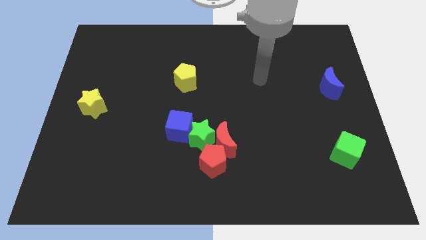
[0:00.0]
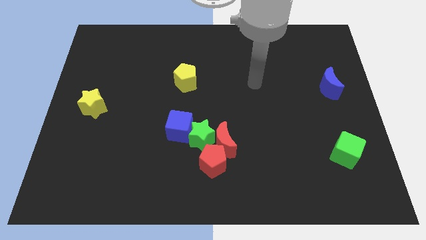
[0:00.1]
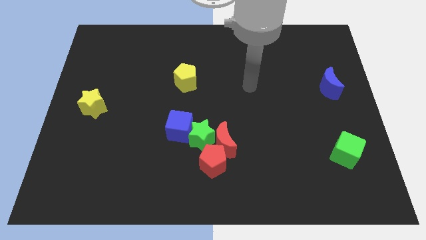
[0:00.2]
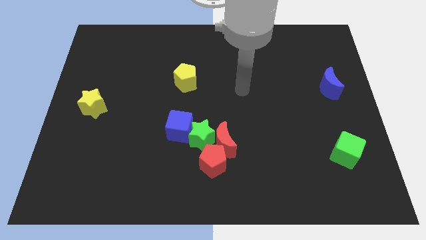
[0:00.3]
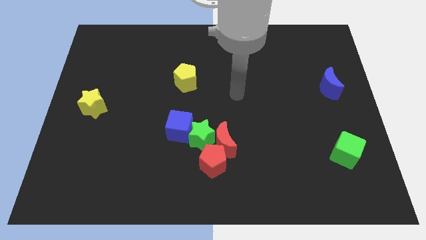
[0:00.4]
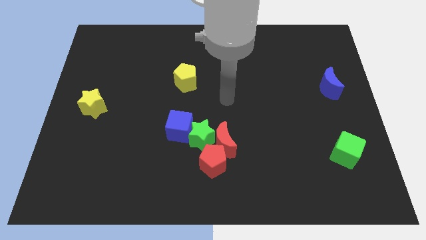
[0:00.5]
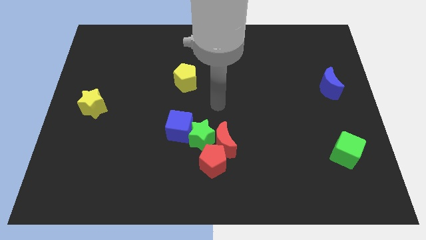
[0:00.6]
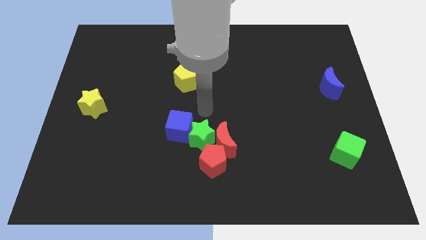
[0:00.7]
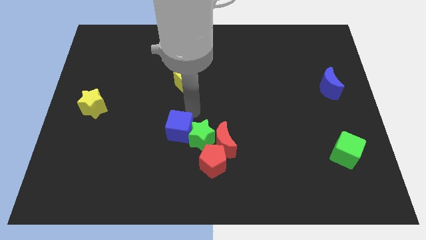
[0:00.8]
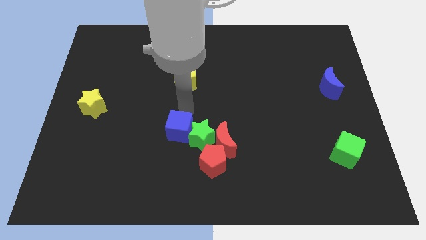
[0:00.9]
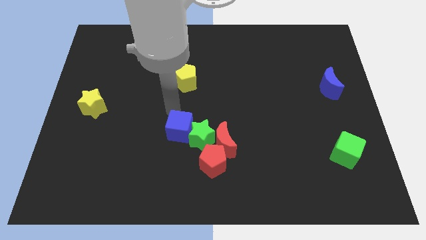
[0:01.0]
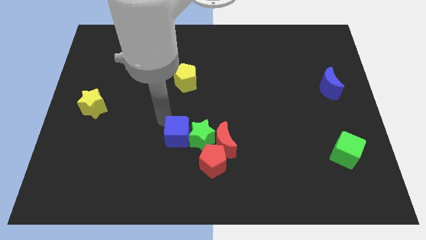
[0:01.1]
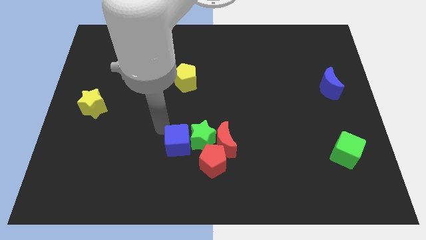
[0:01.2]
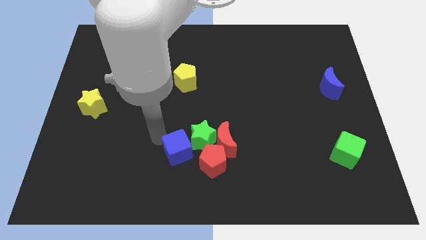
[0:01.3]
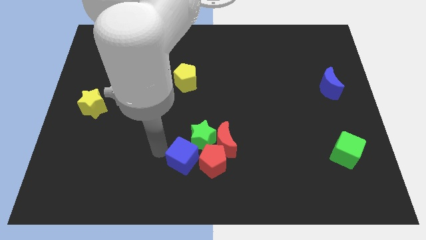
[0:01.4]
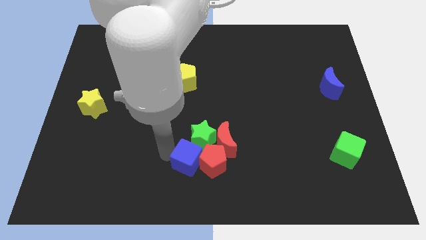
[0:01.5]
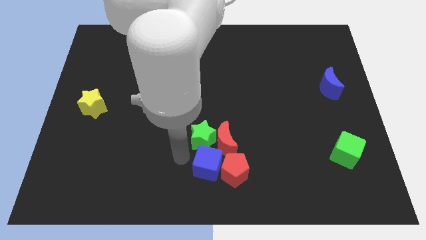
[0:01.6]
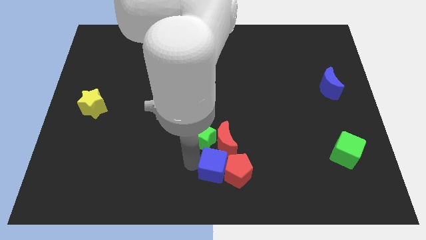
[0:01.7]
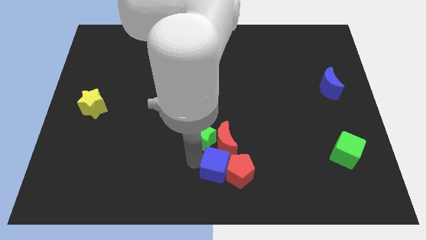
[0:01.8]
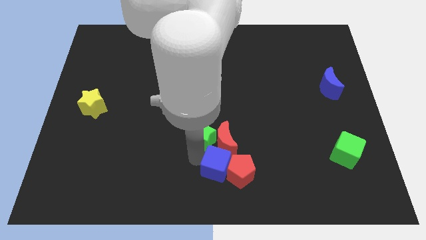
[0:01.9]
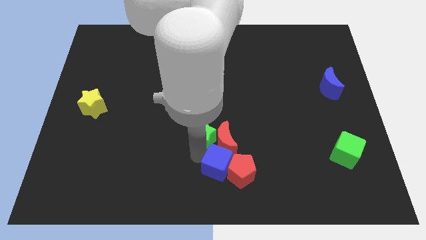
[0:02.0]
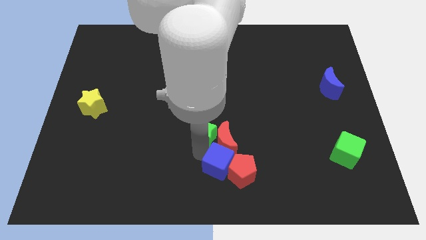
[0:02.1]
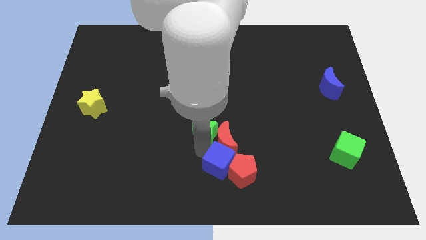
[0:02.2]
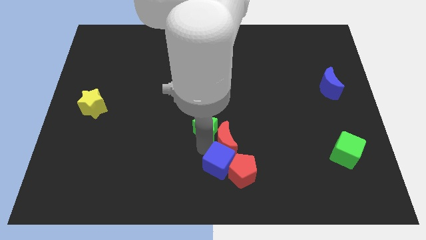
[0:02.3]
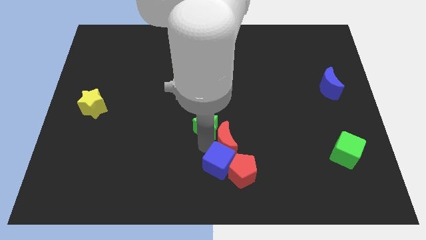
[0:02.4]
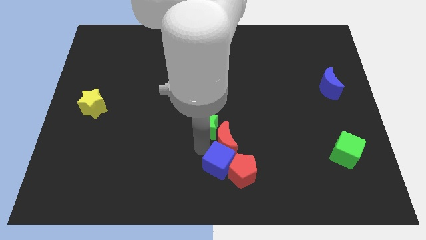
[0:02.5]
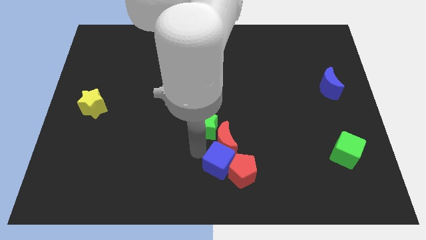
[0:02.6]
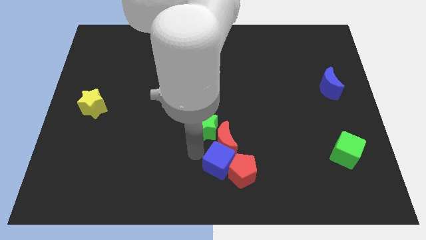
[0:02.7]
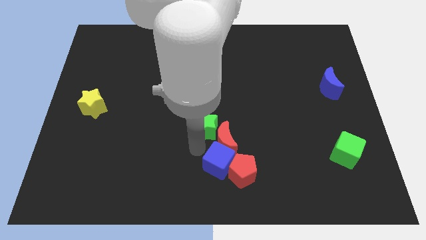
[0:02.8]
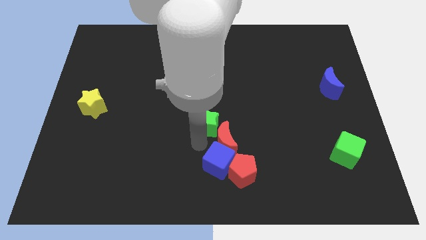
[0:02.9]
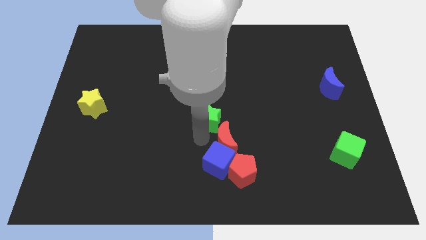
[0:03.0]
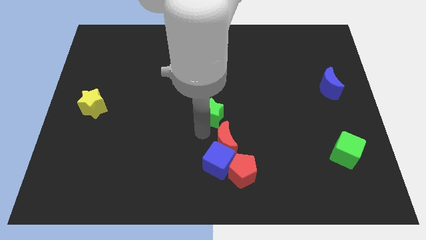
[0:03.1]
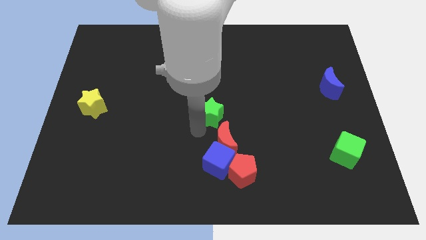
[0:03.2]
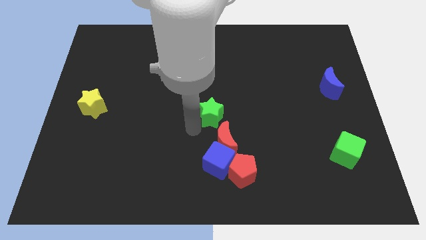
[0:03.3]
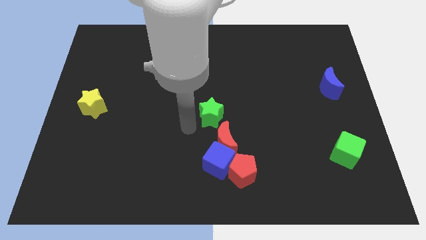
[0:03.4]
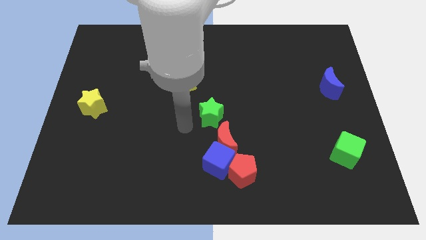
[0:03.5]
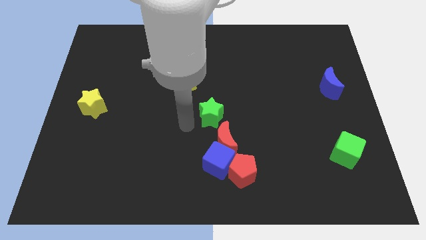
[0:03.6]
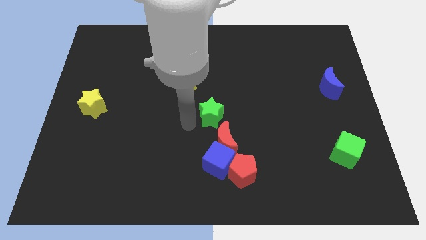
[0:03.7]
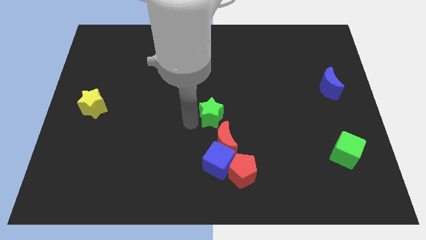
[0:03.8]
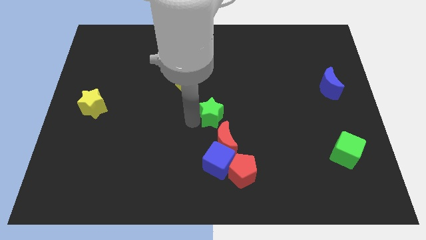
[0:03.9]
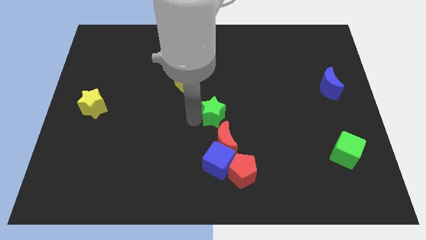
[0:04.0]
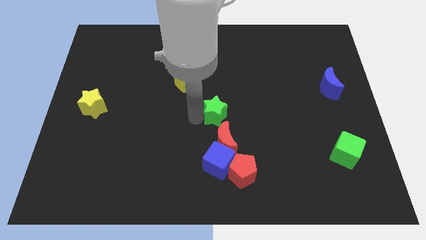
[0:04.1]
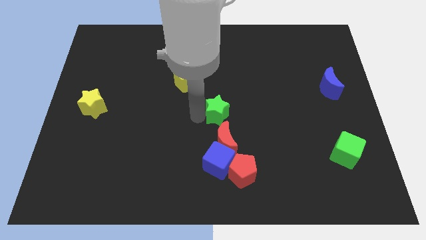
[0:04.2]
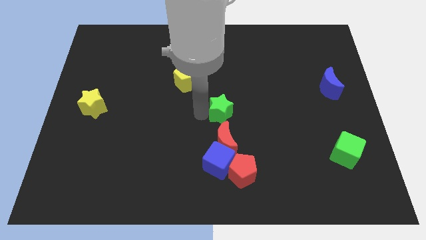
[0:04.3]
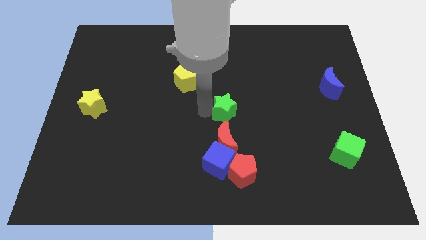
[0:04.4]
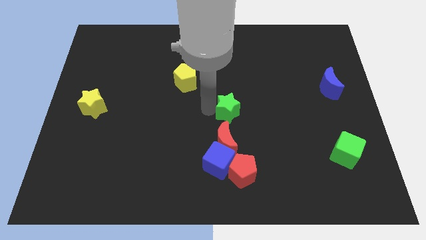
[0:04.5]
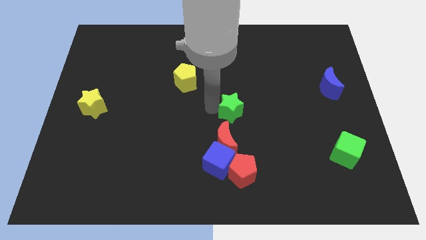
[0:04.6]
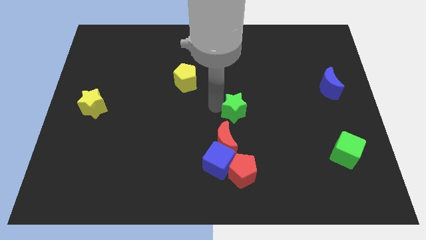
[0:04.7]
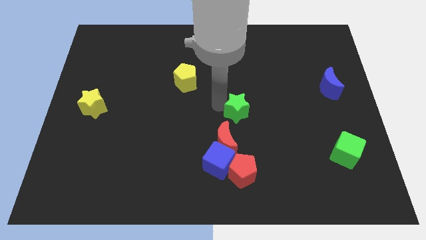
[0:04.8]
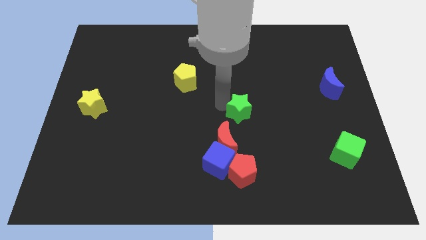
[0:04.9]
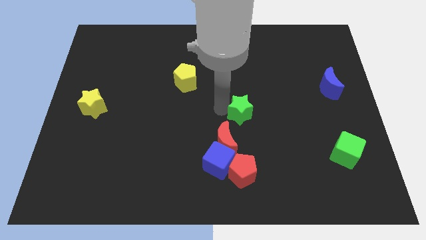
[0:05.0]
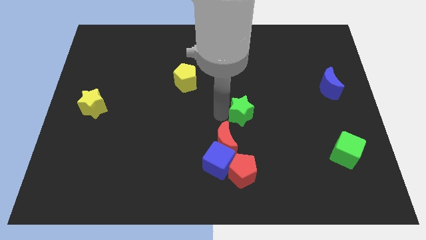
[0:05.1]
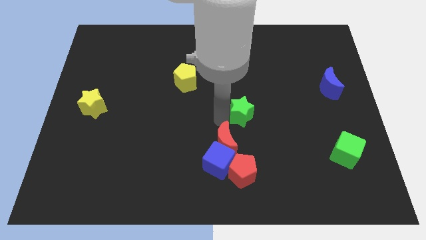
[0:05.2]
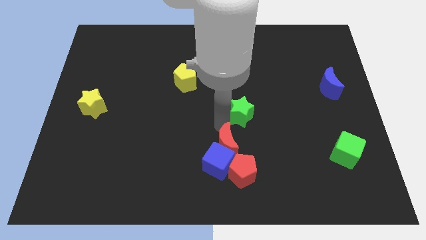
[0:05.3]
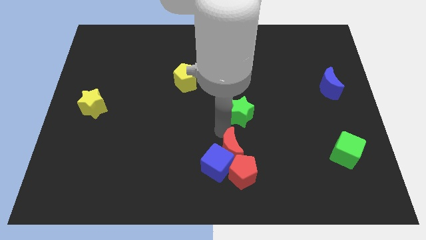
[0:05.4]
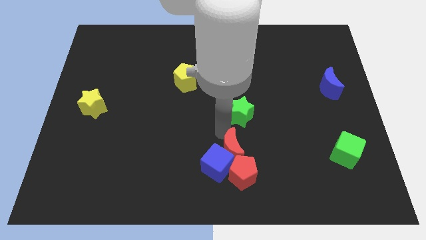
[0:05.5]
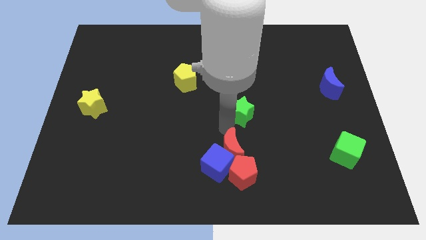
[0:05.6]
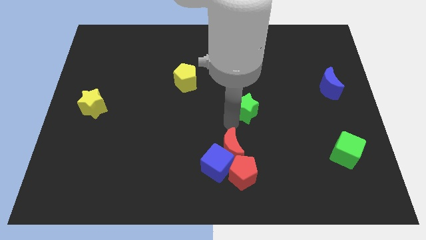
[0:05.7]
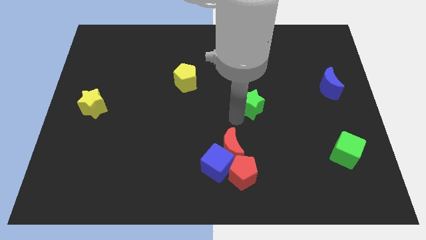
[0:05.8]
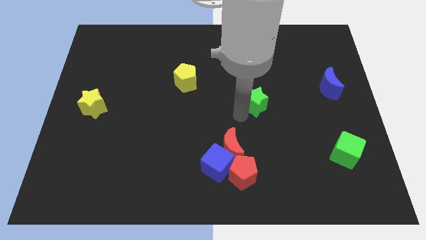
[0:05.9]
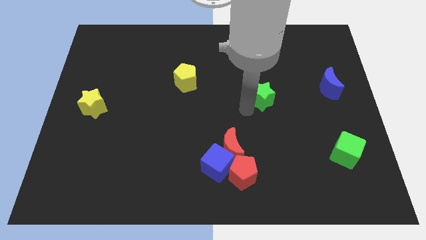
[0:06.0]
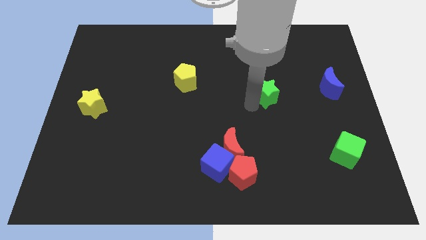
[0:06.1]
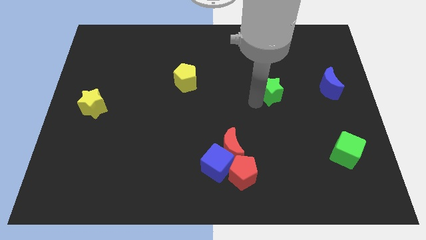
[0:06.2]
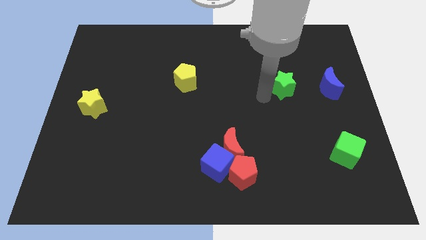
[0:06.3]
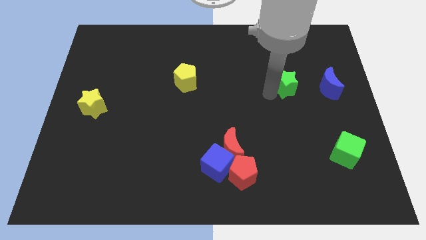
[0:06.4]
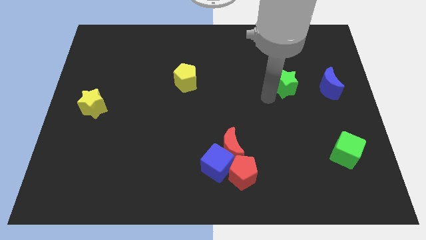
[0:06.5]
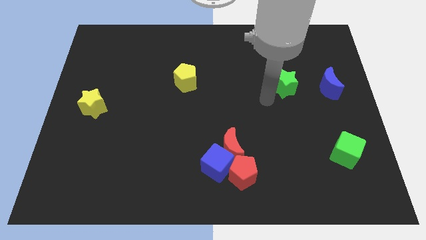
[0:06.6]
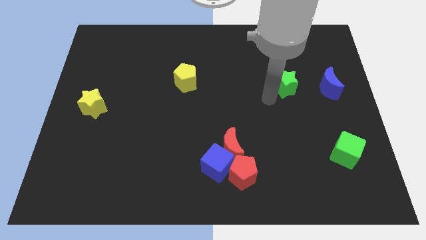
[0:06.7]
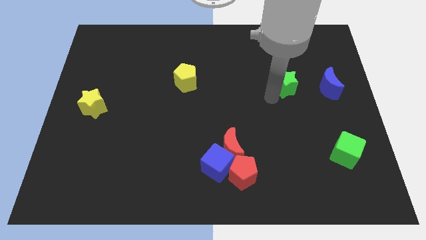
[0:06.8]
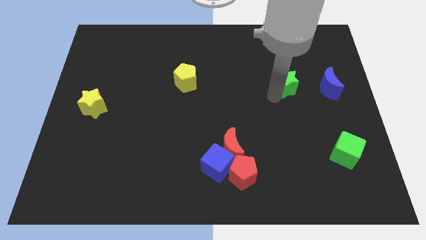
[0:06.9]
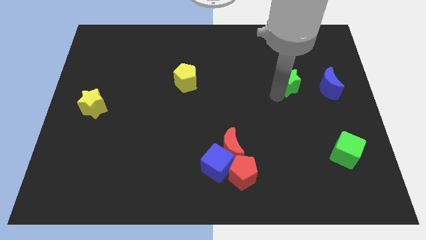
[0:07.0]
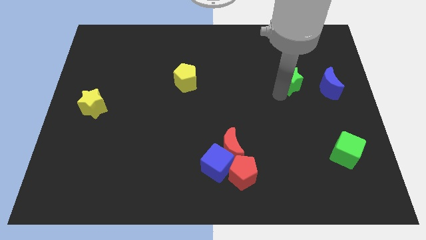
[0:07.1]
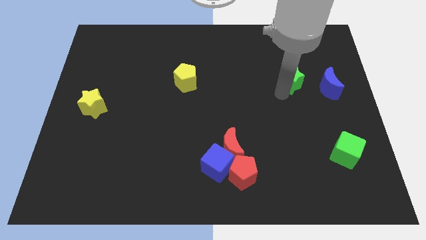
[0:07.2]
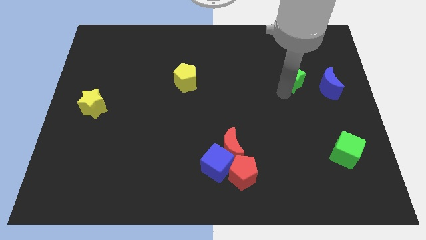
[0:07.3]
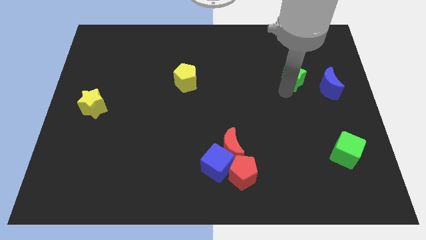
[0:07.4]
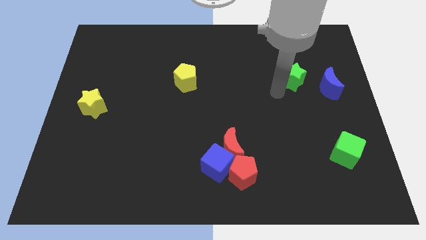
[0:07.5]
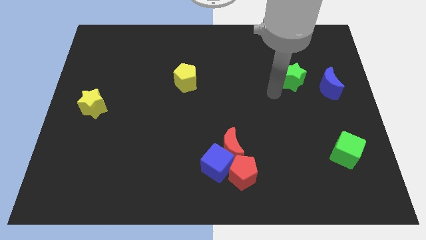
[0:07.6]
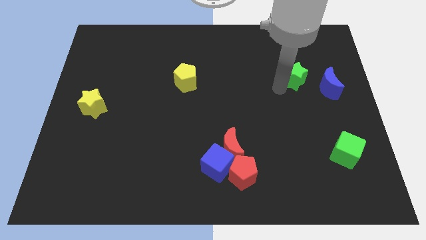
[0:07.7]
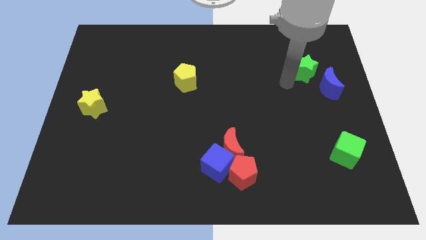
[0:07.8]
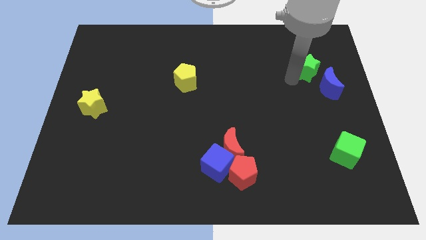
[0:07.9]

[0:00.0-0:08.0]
move the green star to the top of the blue moon
